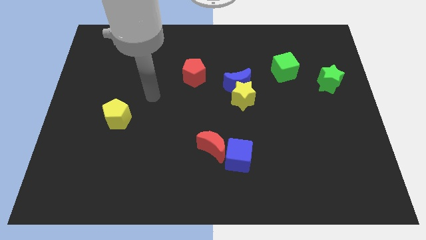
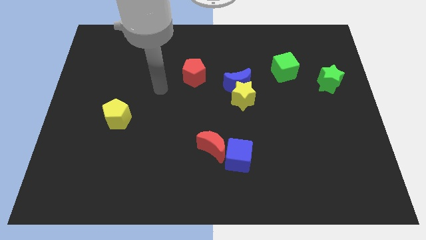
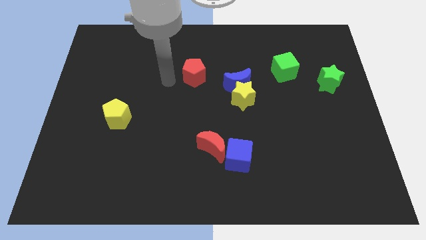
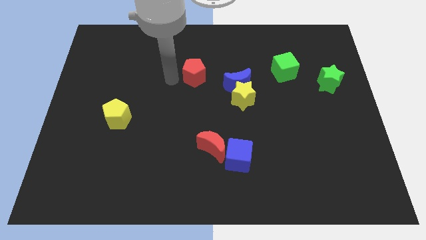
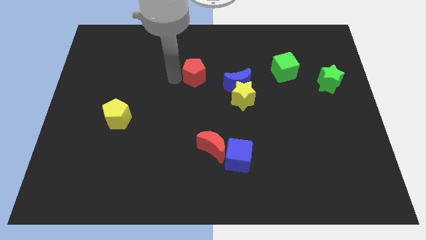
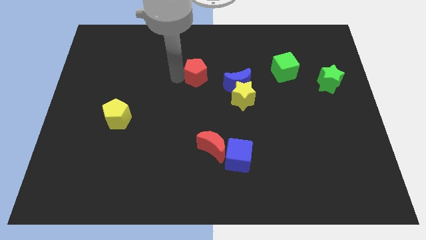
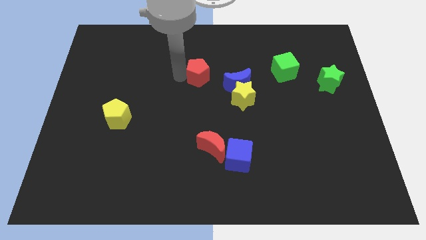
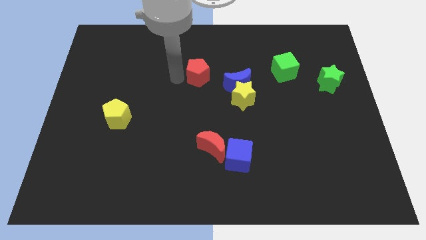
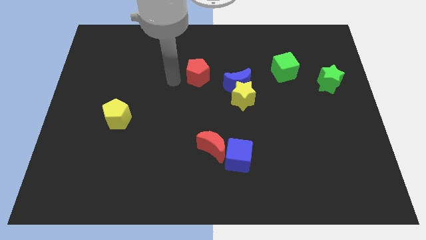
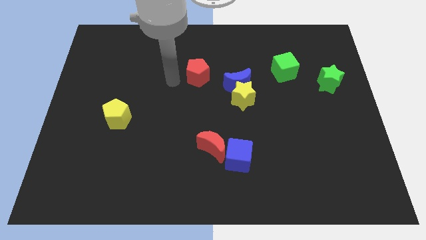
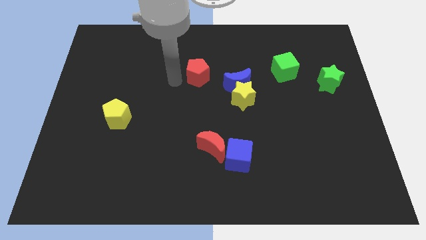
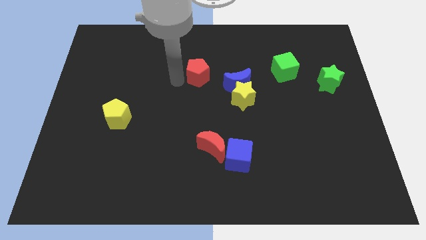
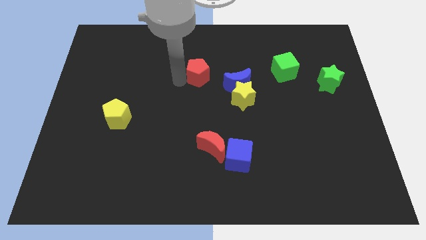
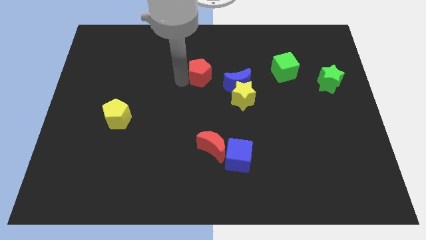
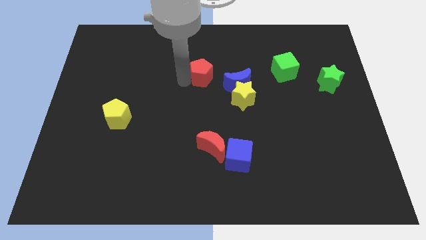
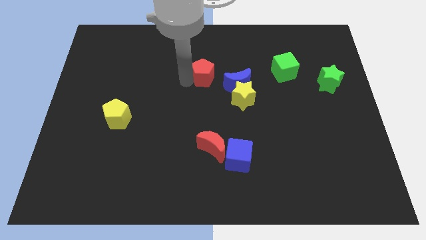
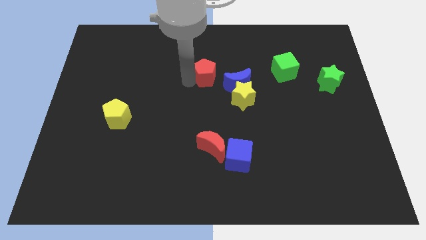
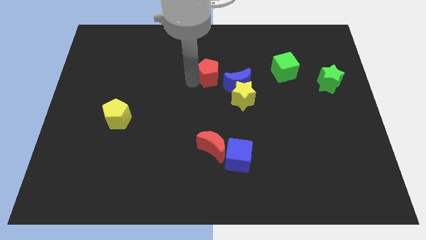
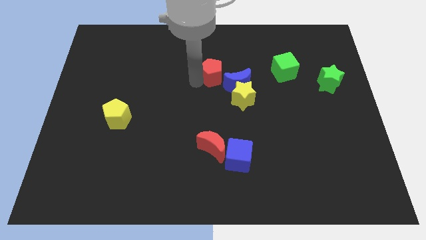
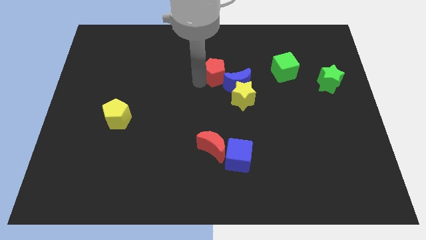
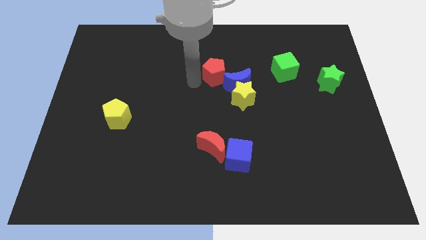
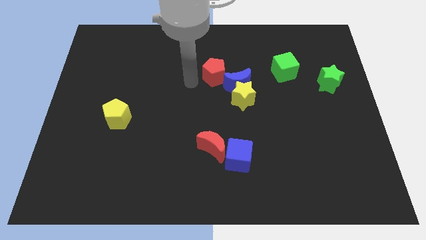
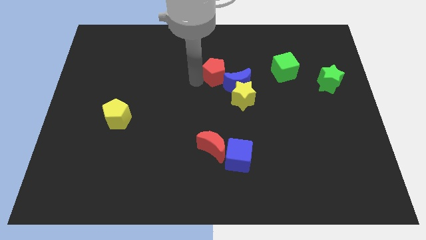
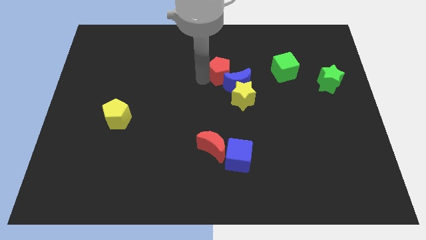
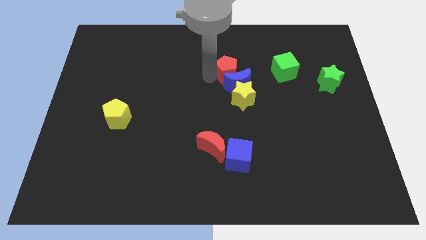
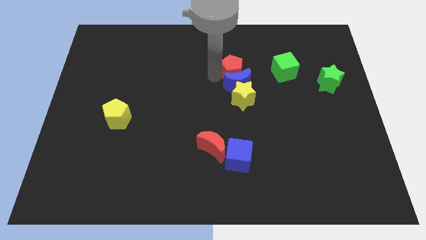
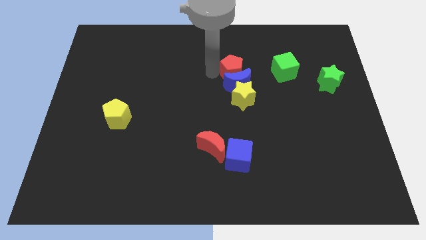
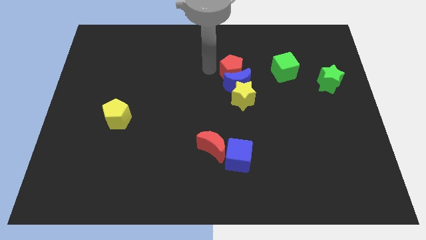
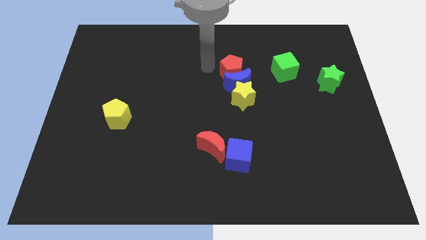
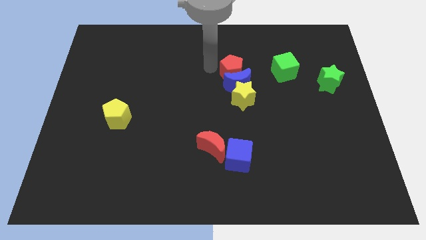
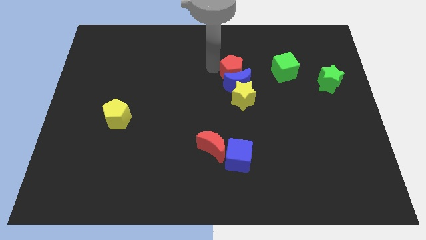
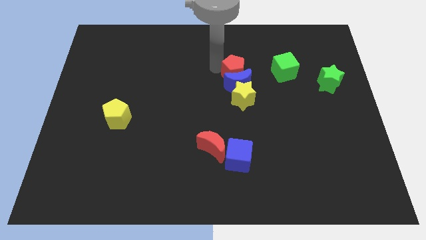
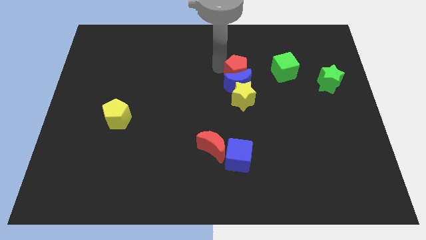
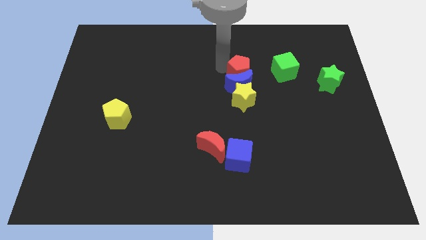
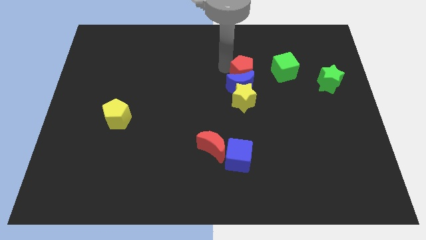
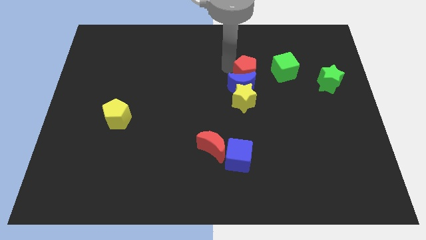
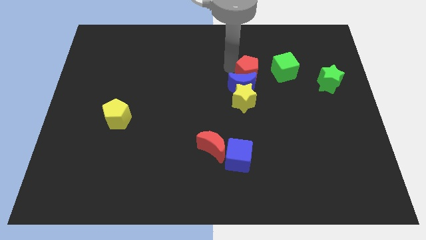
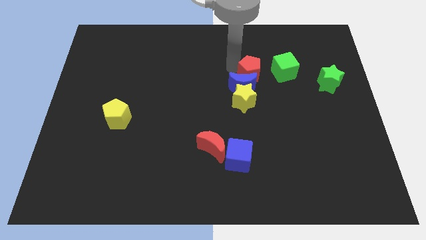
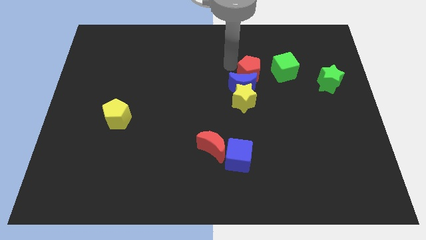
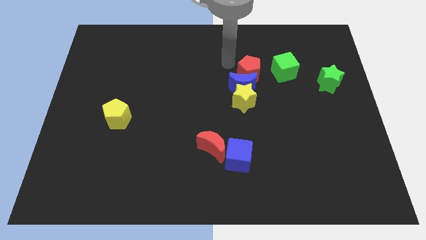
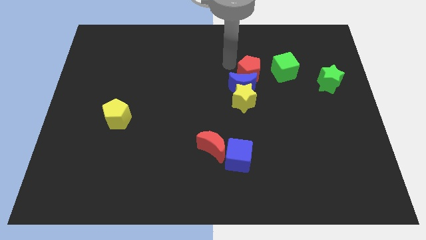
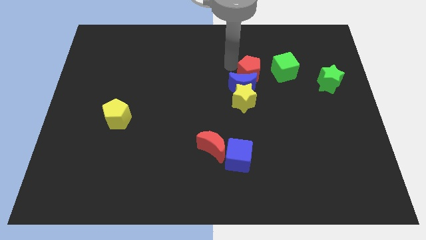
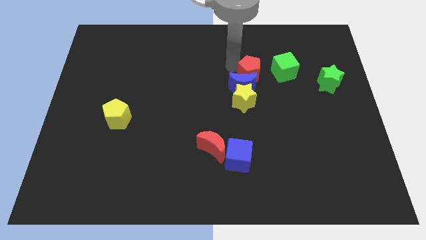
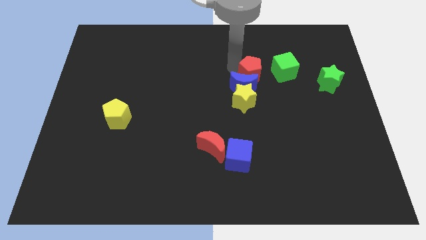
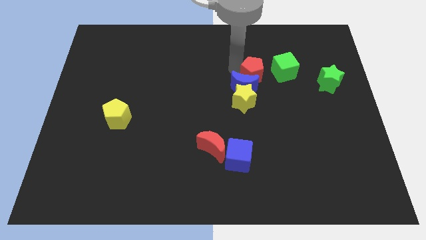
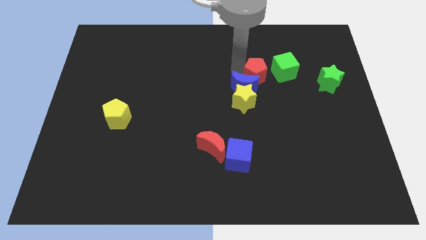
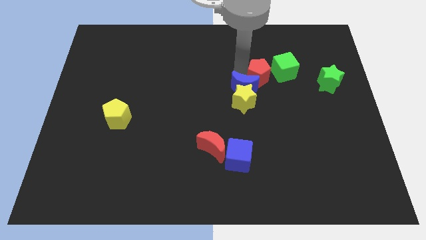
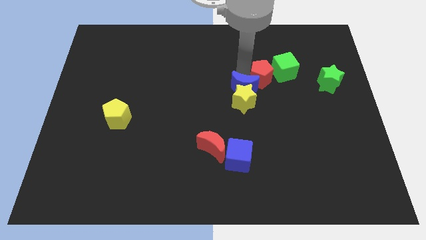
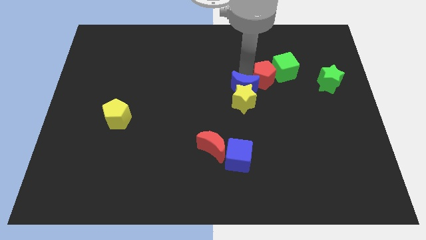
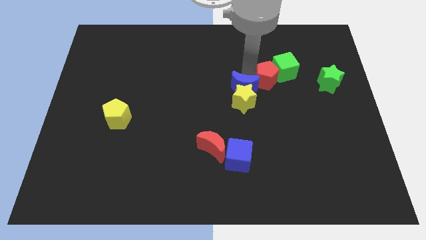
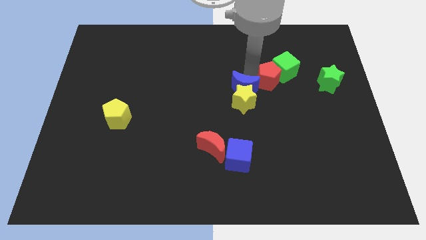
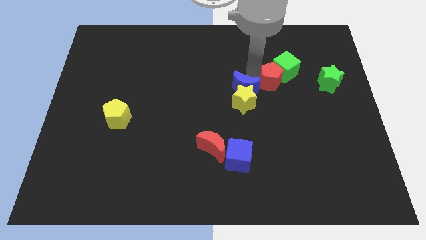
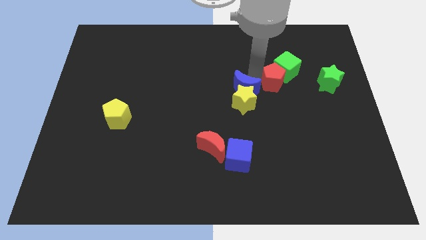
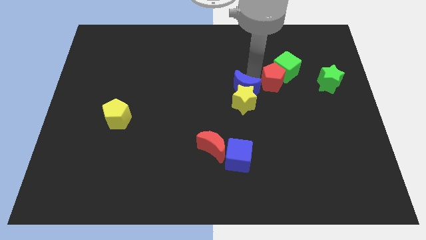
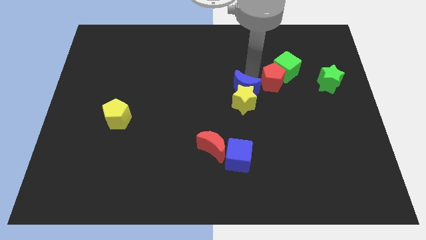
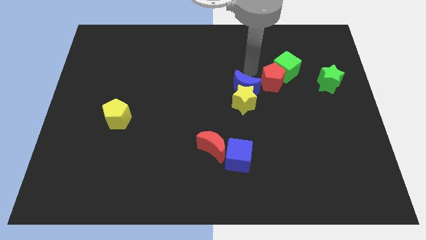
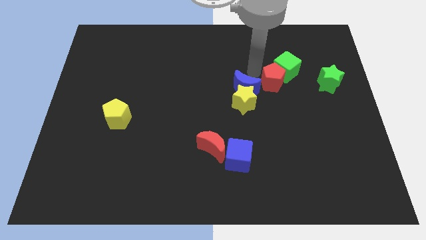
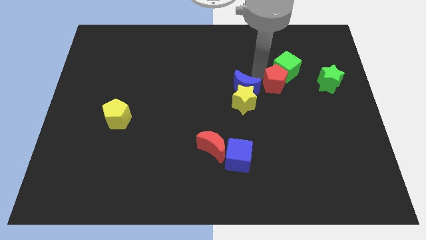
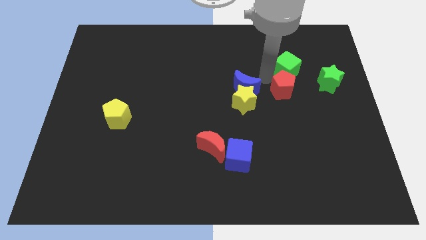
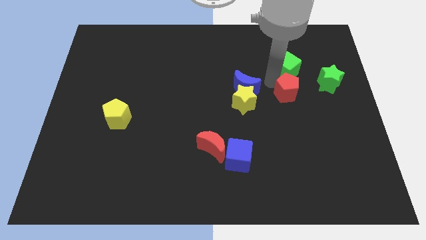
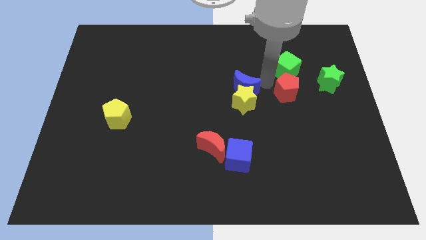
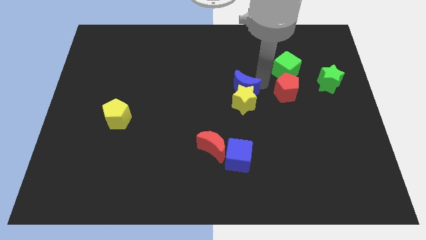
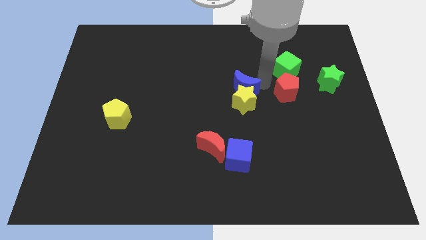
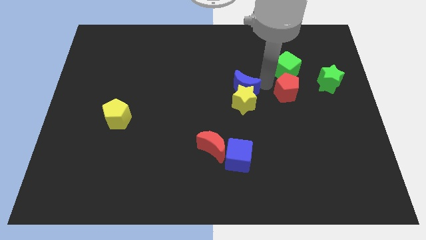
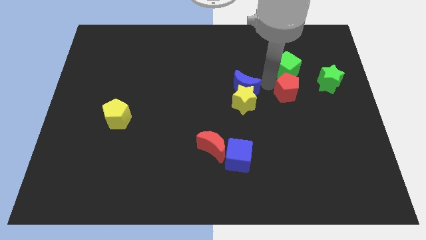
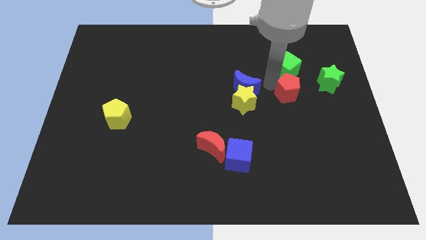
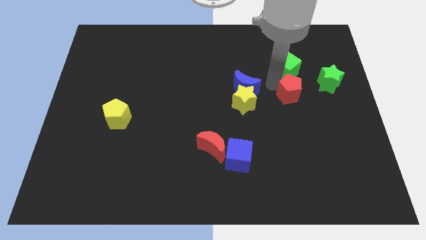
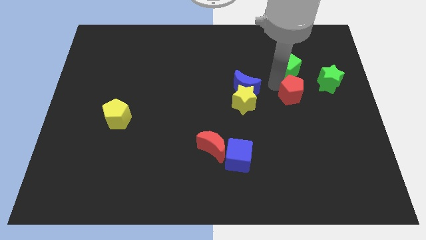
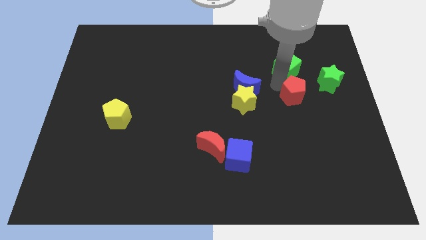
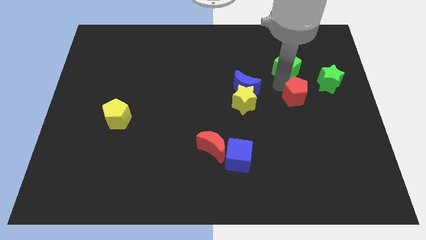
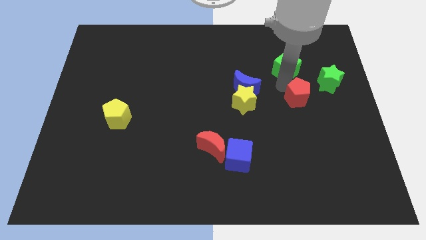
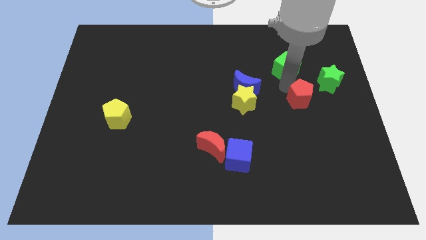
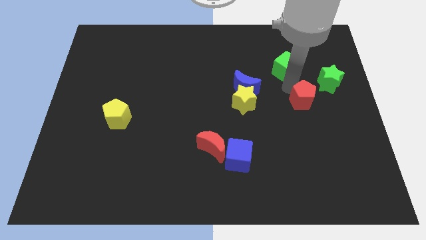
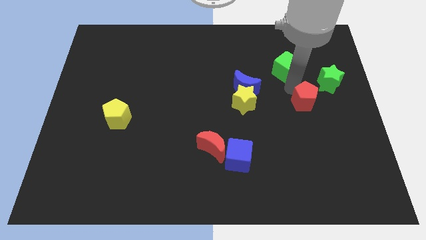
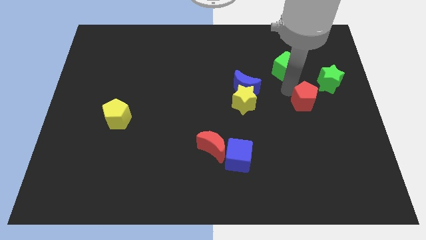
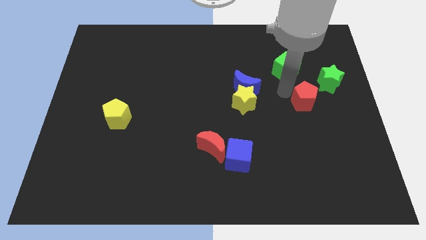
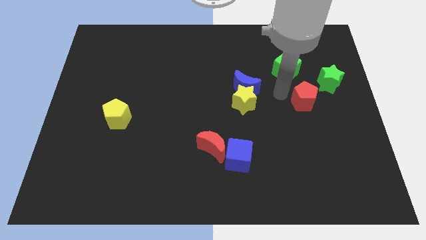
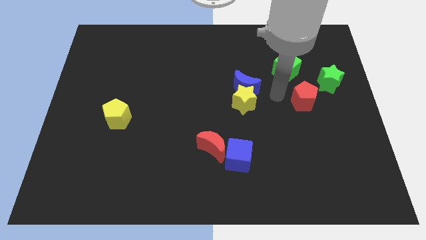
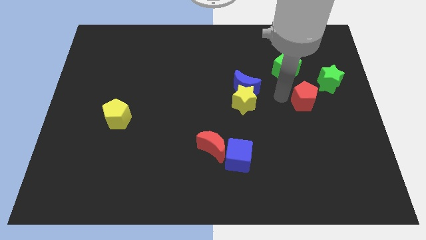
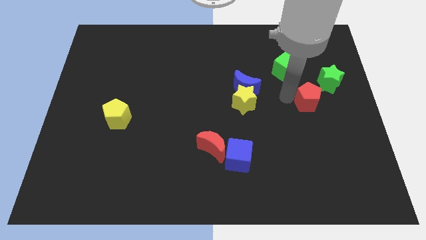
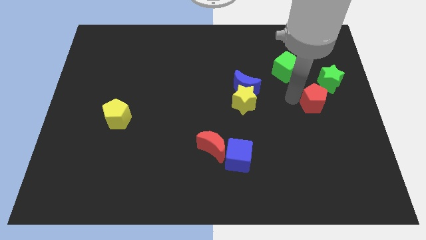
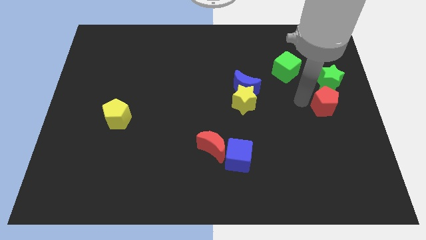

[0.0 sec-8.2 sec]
push the red pentagon to the right side of the board
